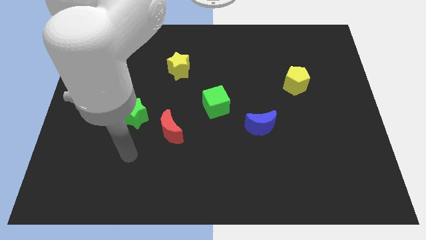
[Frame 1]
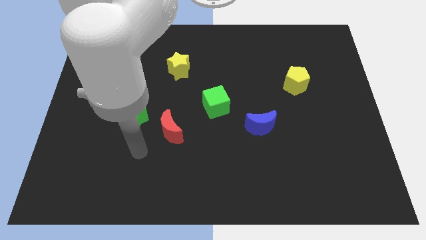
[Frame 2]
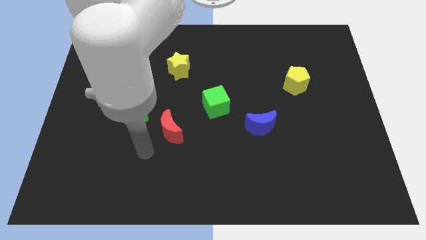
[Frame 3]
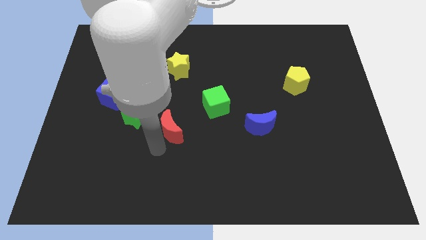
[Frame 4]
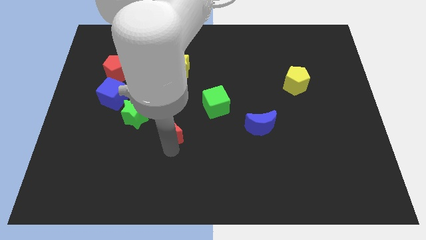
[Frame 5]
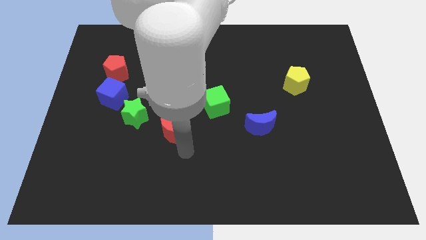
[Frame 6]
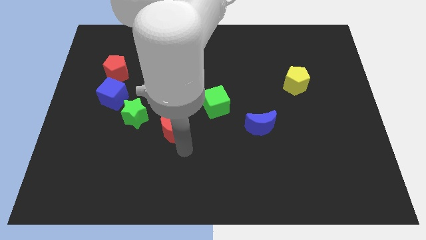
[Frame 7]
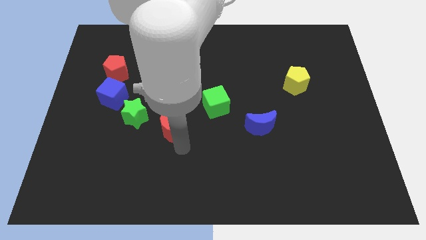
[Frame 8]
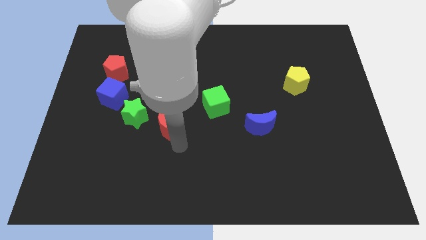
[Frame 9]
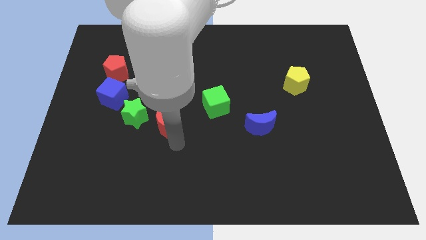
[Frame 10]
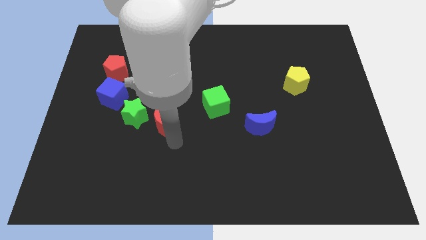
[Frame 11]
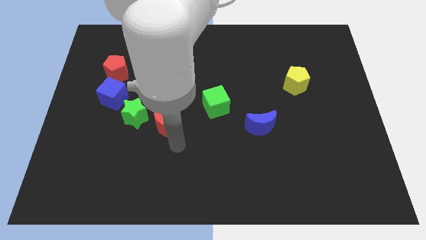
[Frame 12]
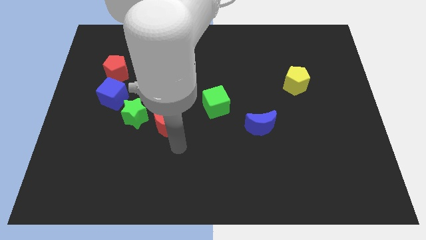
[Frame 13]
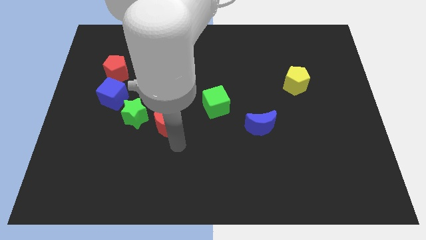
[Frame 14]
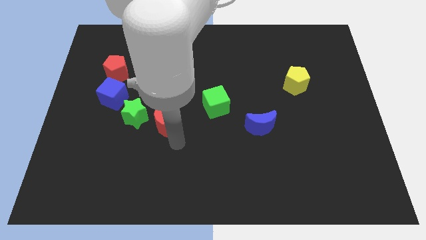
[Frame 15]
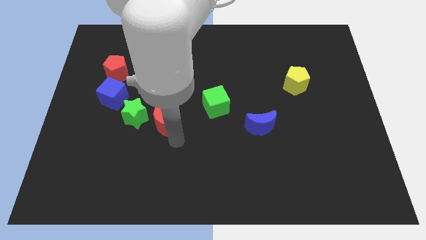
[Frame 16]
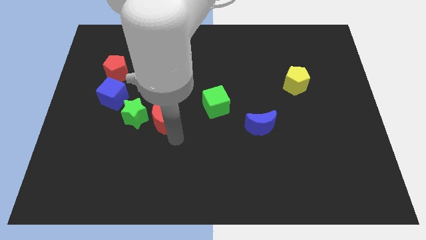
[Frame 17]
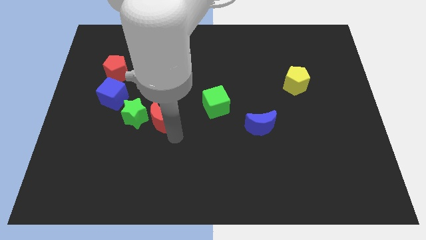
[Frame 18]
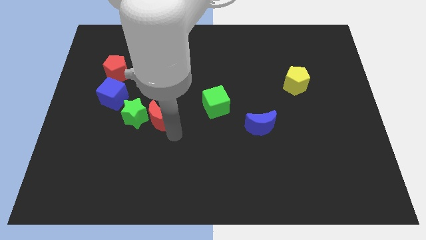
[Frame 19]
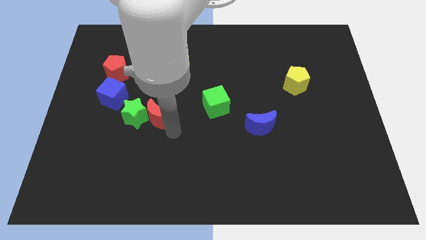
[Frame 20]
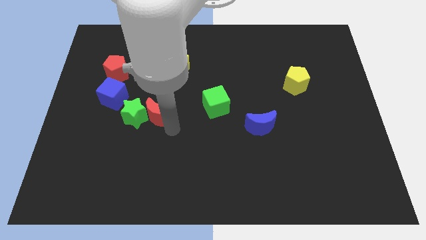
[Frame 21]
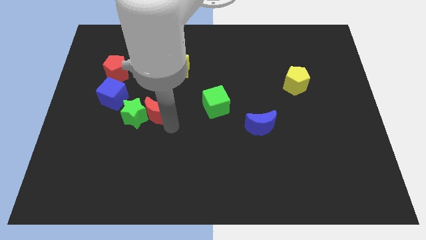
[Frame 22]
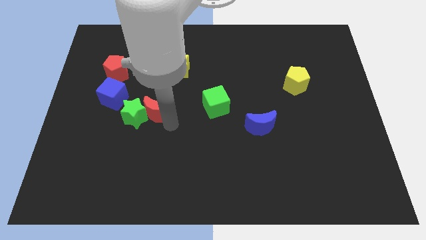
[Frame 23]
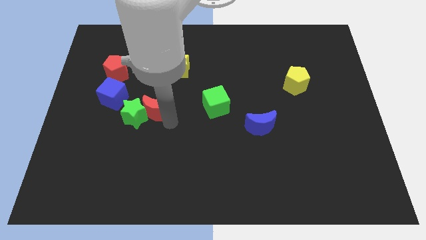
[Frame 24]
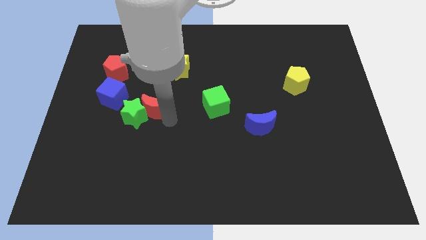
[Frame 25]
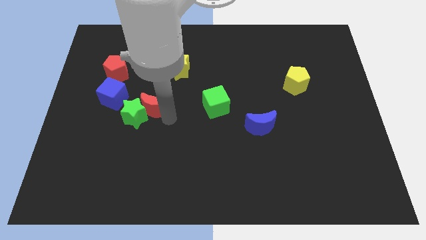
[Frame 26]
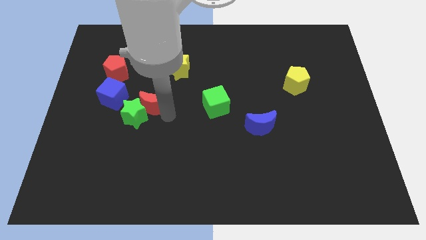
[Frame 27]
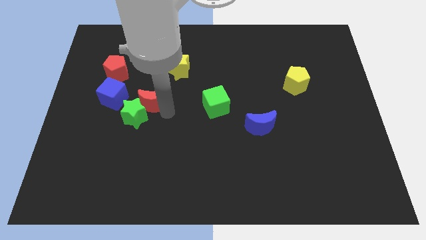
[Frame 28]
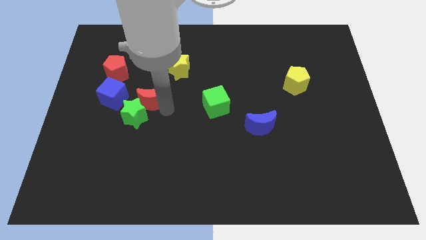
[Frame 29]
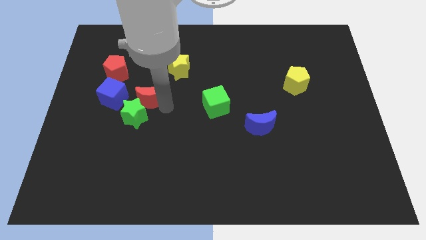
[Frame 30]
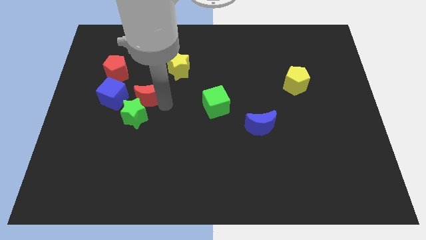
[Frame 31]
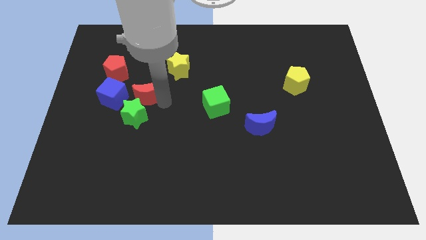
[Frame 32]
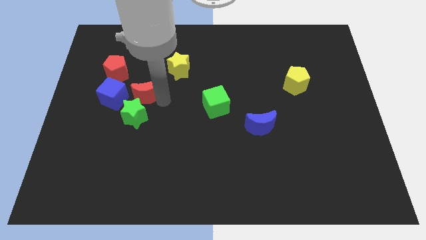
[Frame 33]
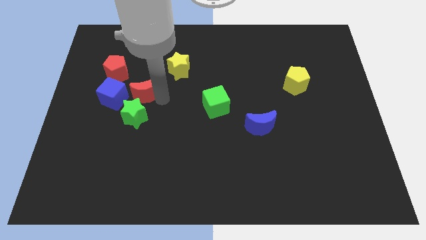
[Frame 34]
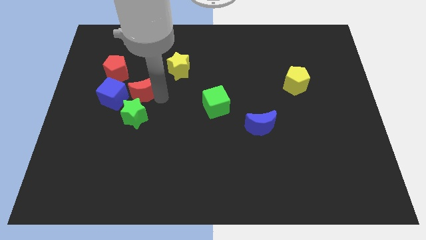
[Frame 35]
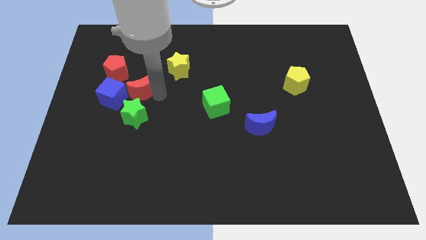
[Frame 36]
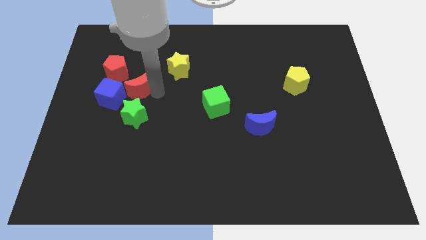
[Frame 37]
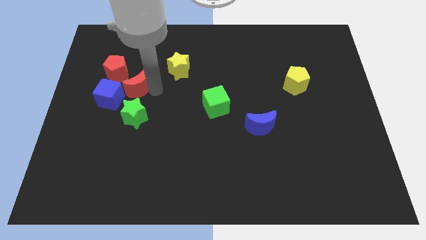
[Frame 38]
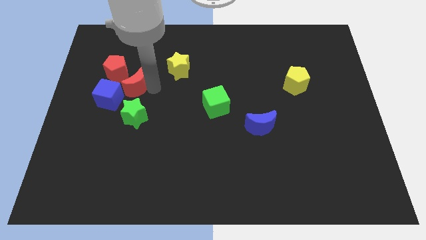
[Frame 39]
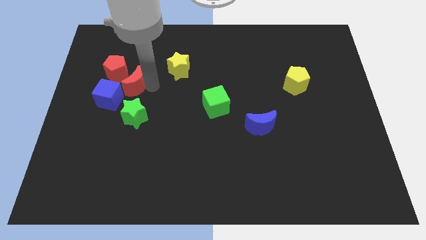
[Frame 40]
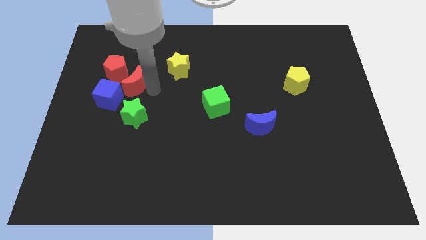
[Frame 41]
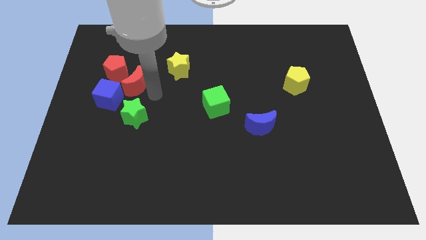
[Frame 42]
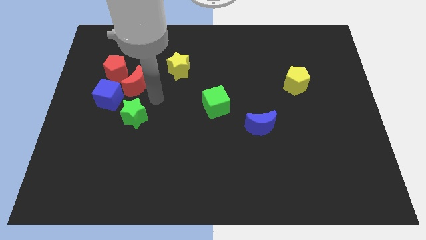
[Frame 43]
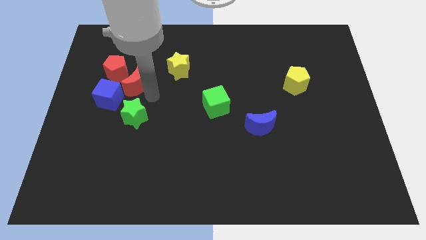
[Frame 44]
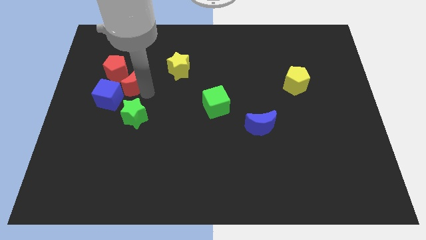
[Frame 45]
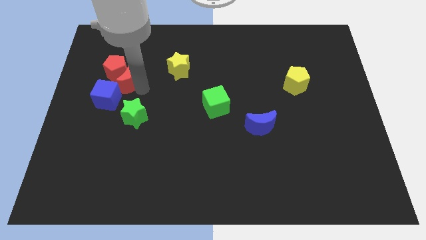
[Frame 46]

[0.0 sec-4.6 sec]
put the red moon close to the red pentagon

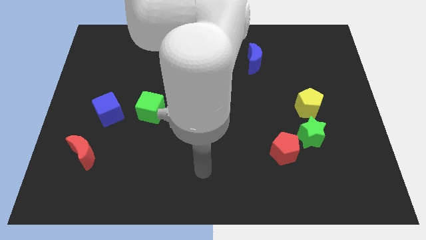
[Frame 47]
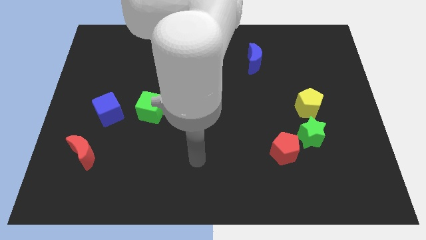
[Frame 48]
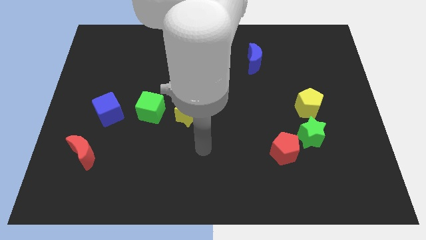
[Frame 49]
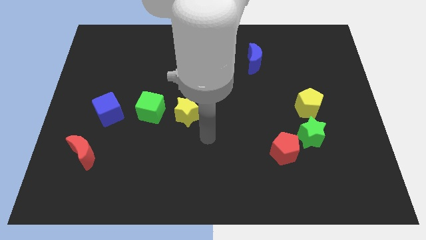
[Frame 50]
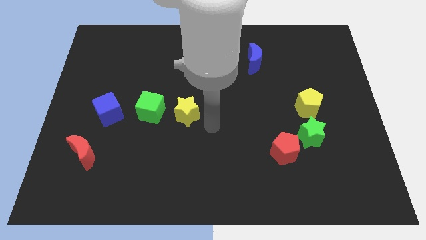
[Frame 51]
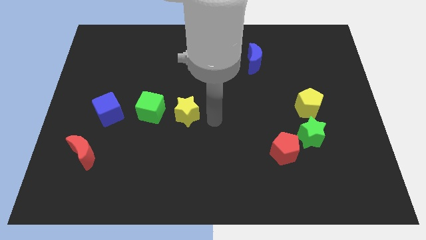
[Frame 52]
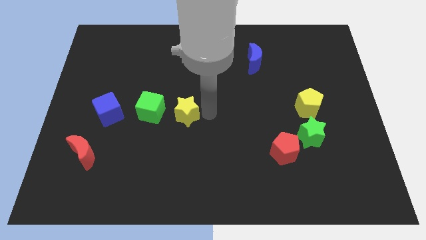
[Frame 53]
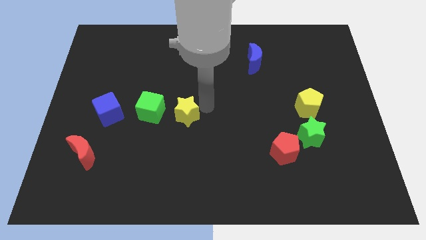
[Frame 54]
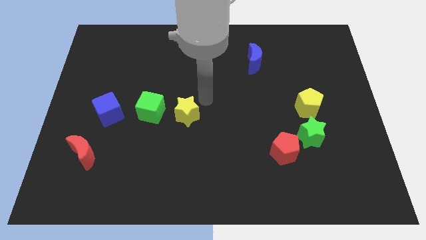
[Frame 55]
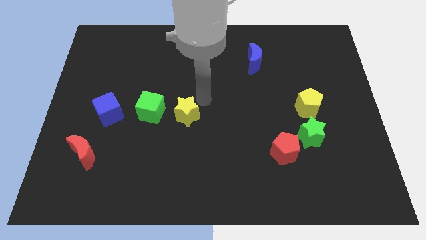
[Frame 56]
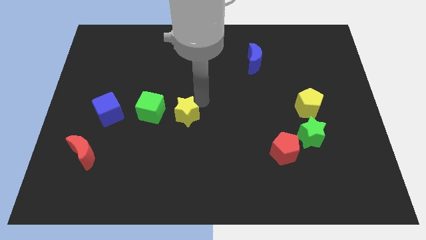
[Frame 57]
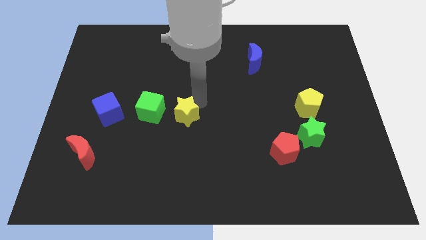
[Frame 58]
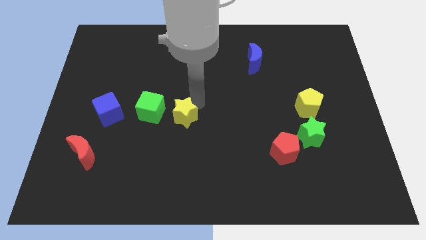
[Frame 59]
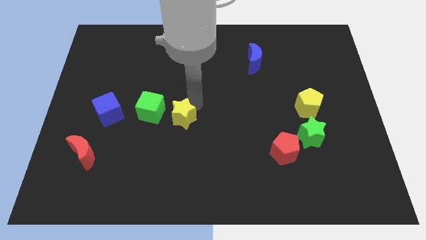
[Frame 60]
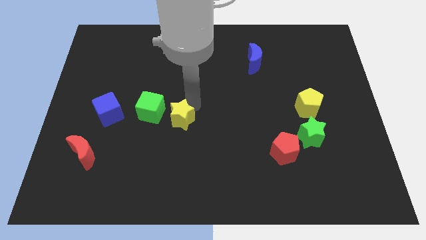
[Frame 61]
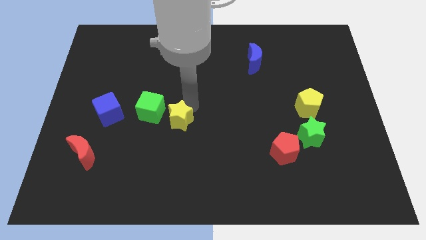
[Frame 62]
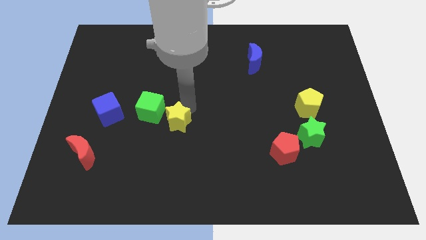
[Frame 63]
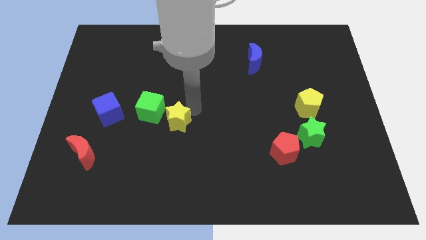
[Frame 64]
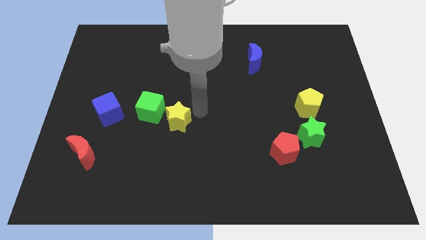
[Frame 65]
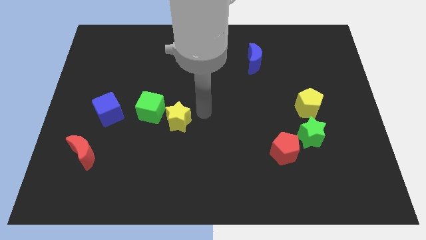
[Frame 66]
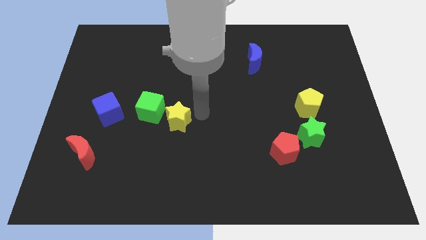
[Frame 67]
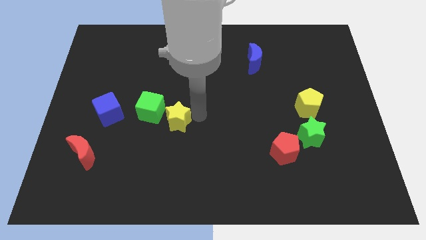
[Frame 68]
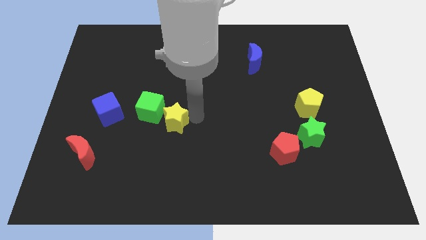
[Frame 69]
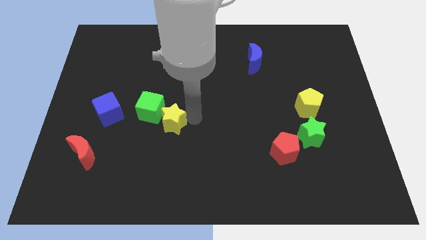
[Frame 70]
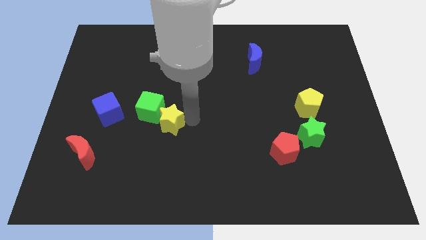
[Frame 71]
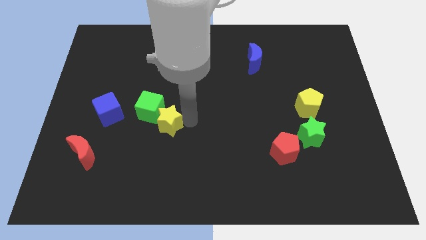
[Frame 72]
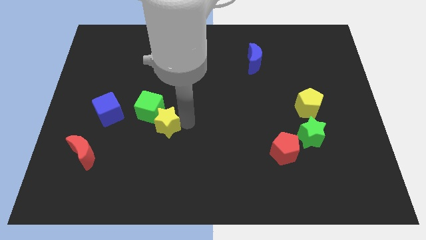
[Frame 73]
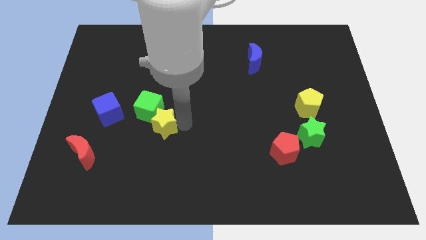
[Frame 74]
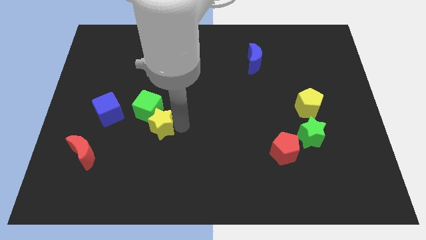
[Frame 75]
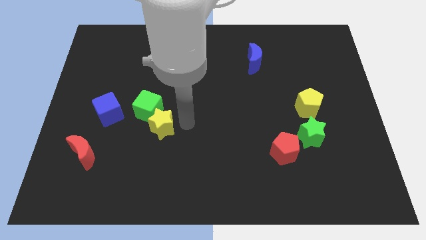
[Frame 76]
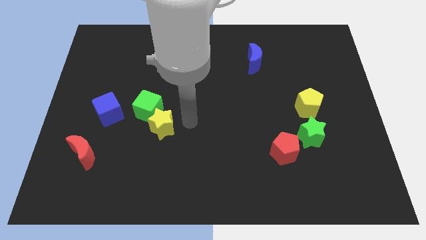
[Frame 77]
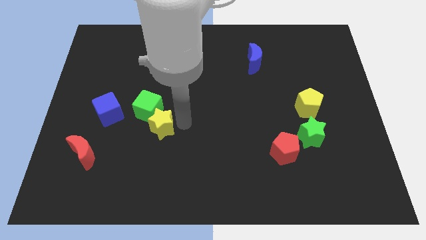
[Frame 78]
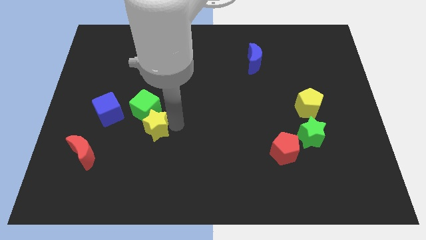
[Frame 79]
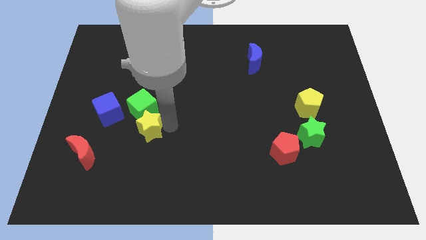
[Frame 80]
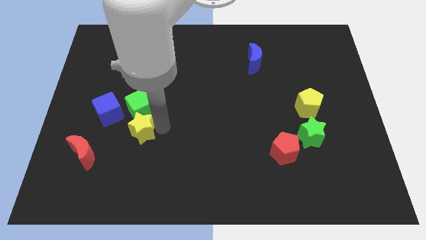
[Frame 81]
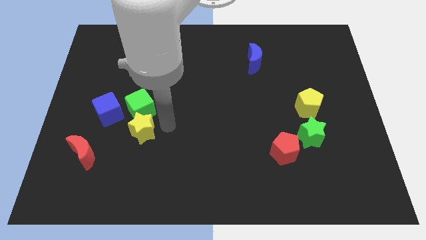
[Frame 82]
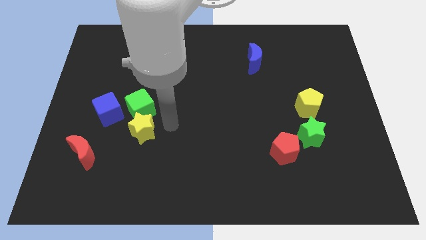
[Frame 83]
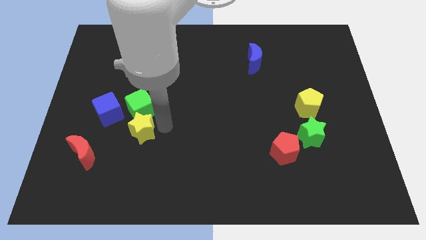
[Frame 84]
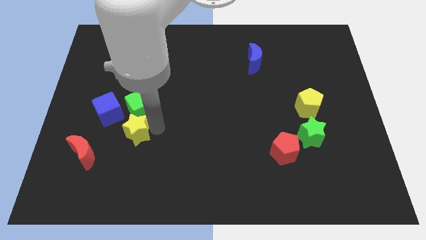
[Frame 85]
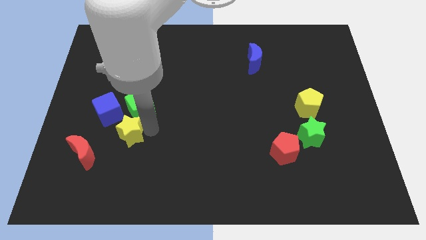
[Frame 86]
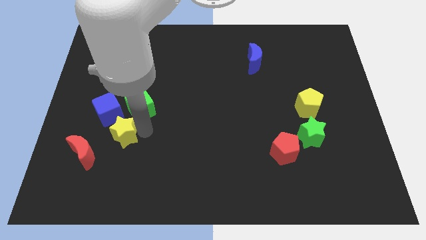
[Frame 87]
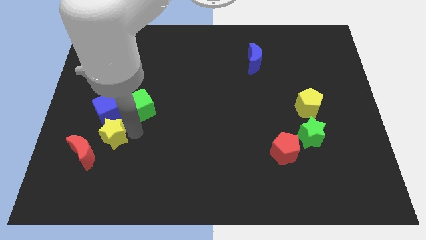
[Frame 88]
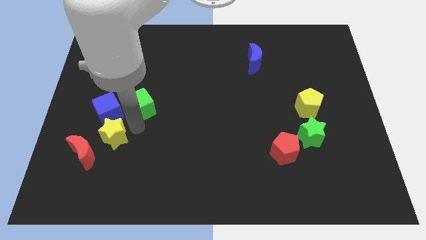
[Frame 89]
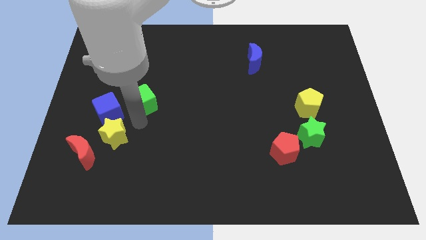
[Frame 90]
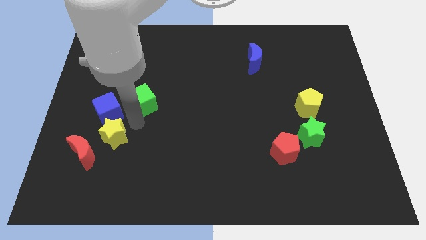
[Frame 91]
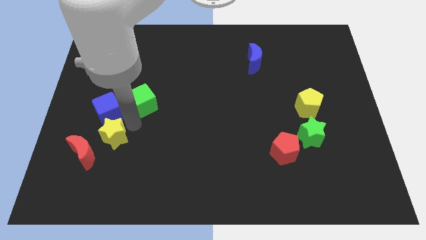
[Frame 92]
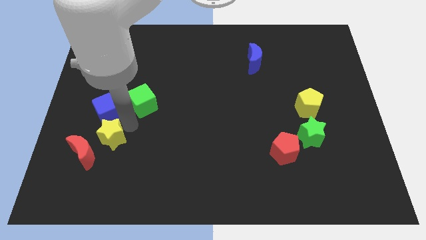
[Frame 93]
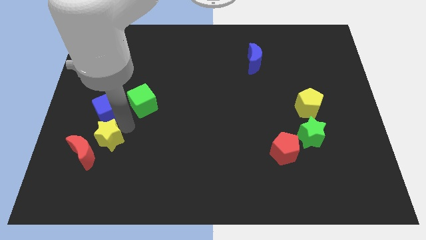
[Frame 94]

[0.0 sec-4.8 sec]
put the yellow star close to the red moon
